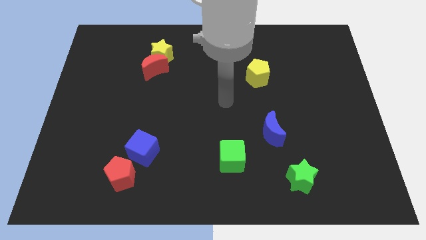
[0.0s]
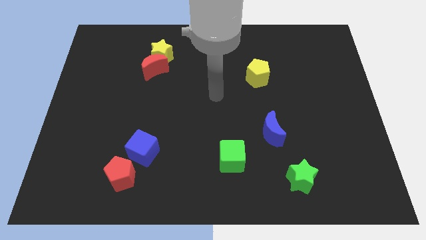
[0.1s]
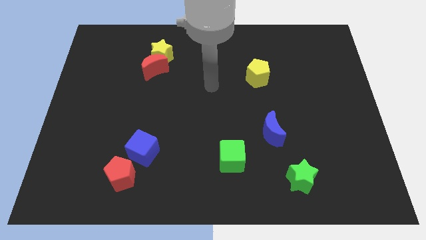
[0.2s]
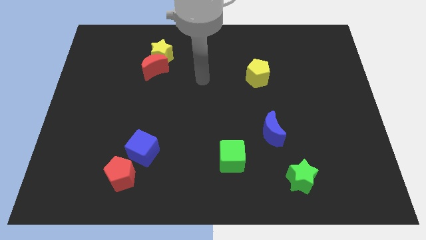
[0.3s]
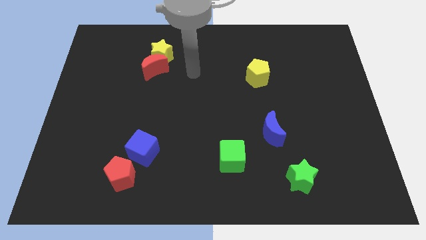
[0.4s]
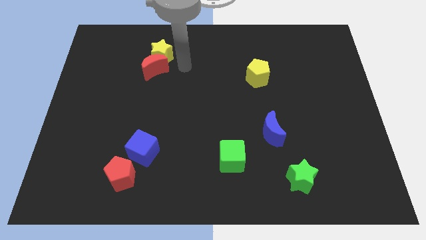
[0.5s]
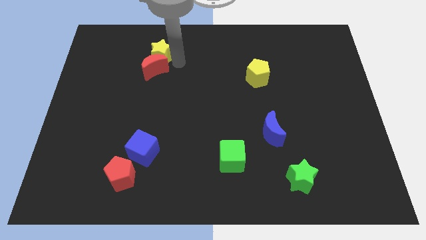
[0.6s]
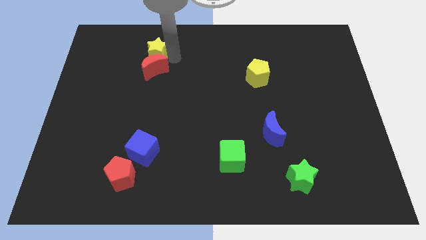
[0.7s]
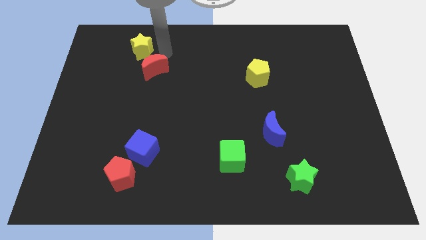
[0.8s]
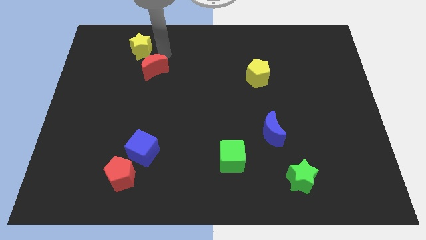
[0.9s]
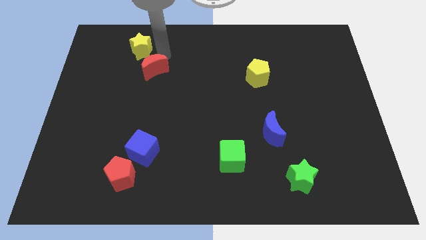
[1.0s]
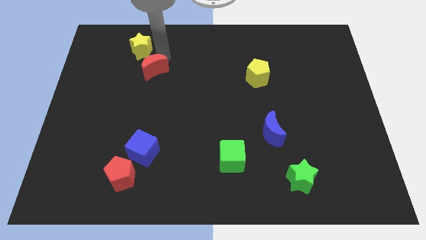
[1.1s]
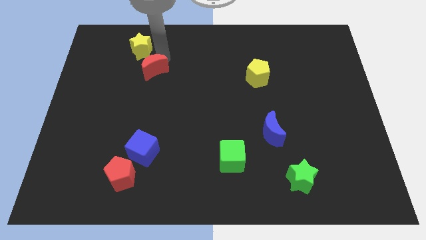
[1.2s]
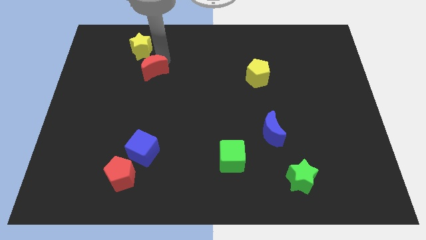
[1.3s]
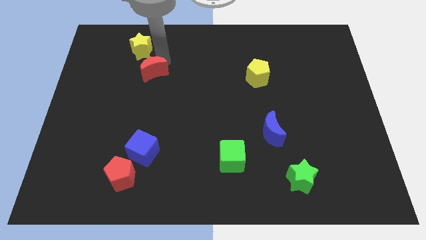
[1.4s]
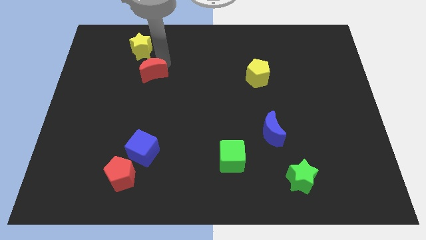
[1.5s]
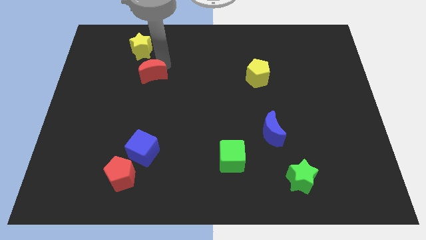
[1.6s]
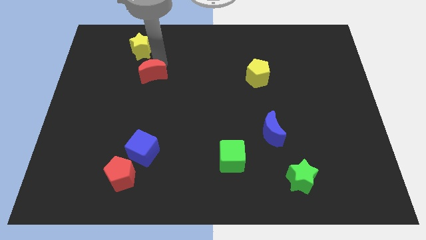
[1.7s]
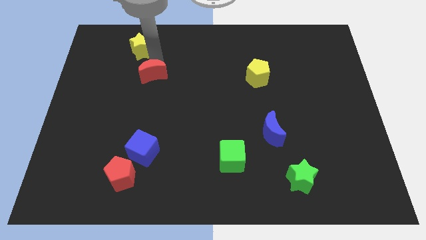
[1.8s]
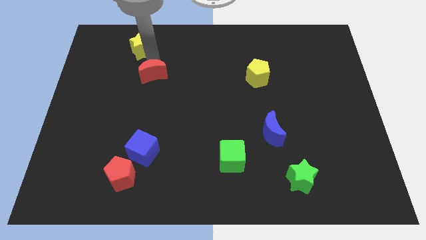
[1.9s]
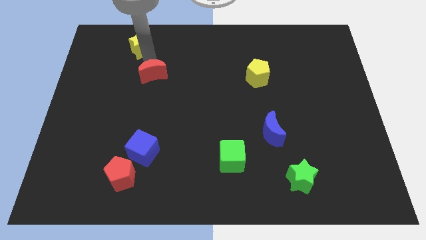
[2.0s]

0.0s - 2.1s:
move the red moon away from the yellow star

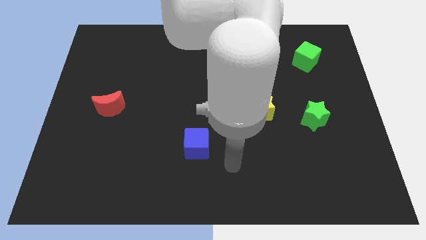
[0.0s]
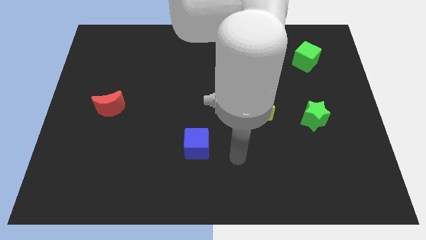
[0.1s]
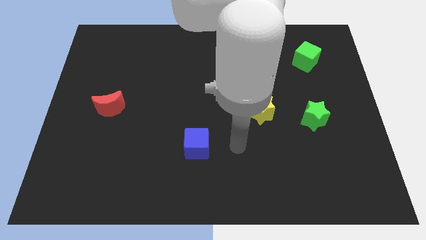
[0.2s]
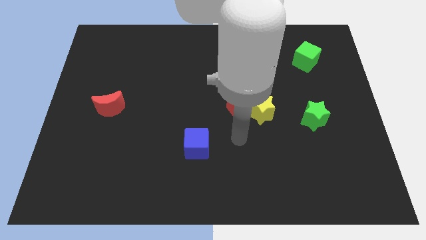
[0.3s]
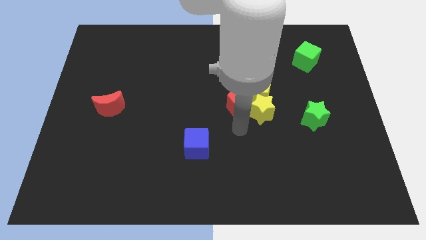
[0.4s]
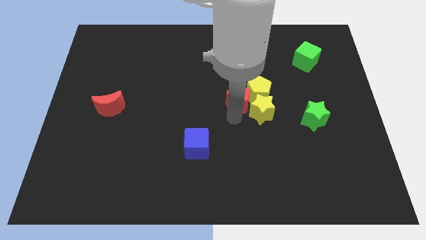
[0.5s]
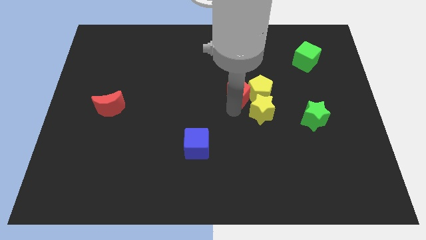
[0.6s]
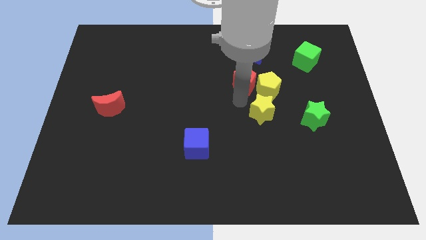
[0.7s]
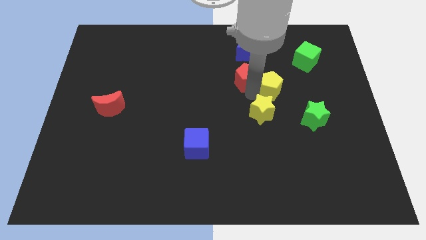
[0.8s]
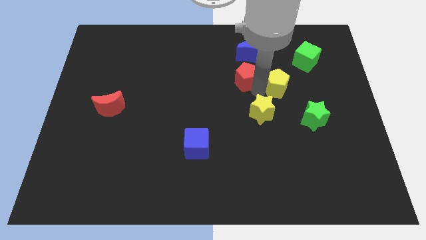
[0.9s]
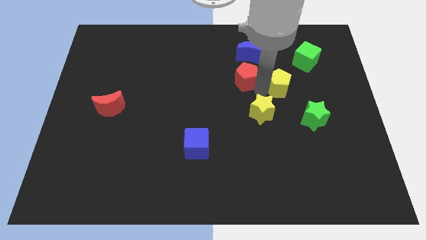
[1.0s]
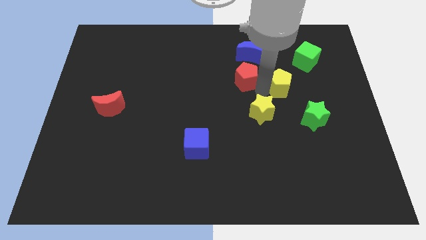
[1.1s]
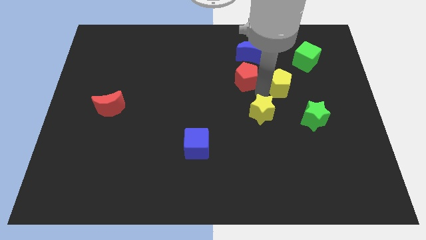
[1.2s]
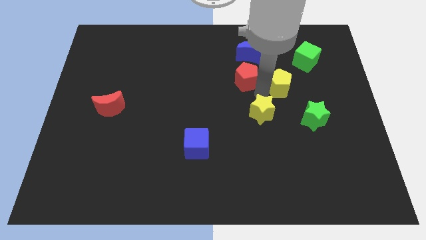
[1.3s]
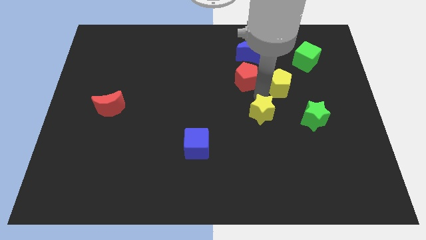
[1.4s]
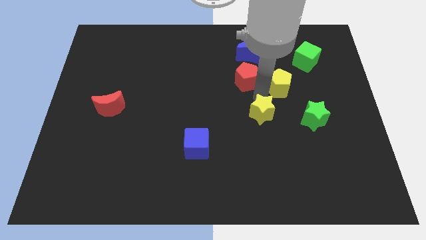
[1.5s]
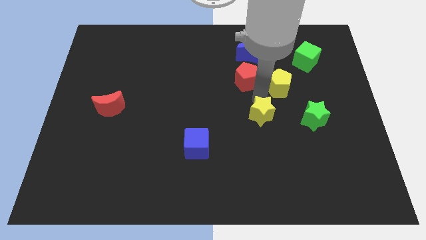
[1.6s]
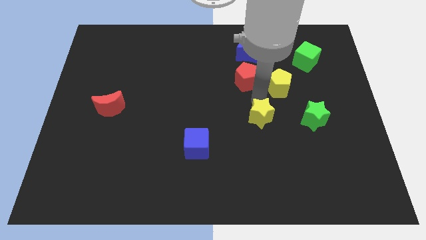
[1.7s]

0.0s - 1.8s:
move the yellow star away from the yellow pentagon and red pentagon

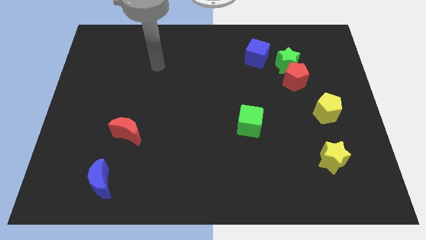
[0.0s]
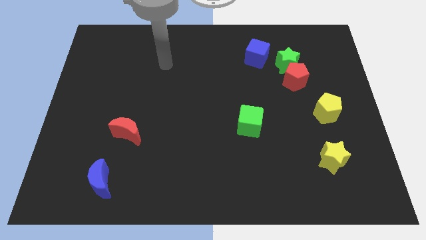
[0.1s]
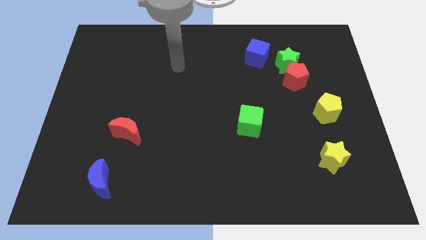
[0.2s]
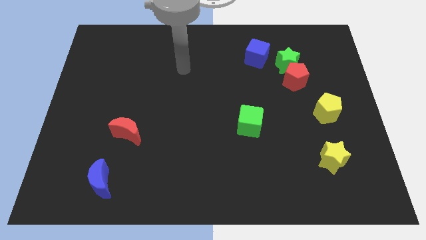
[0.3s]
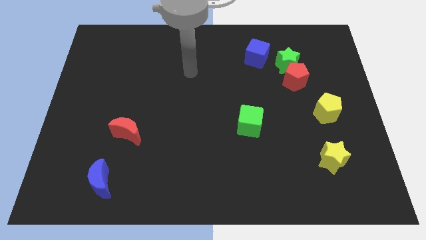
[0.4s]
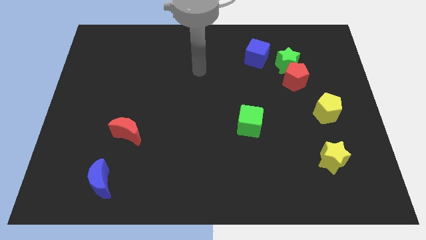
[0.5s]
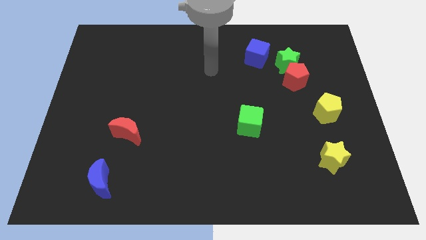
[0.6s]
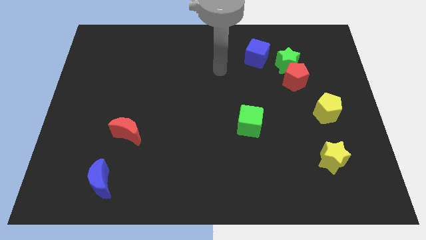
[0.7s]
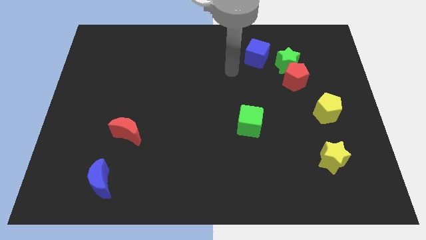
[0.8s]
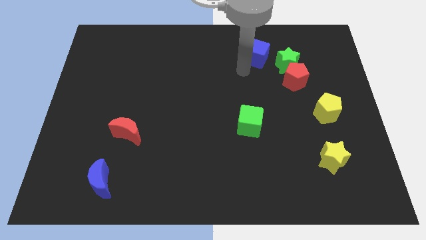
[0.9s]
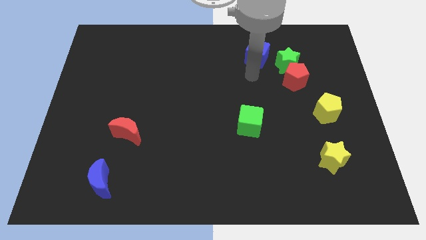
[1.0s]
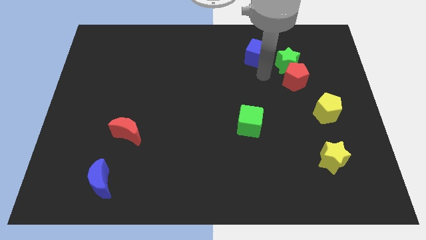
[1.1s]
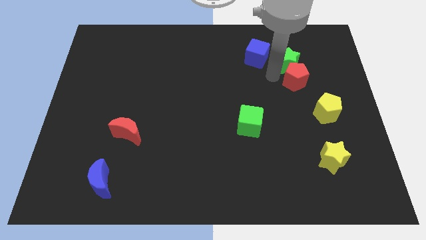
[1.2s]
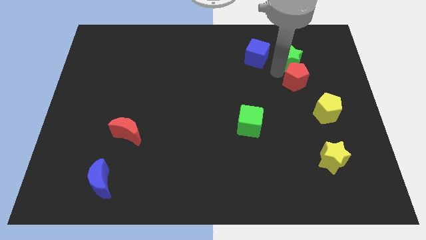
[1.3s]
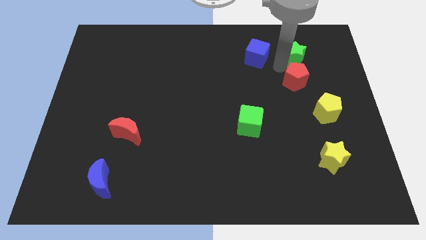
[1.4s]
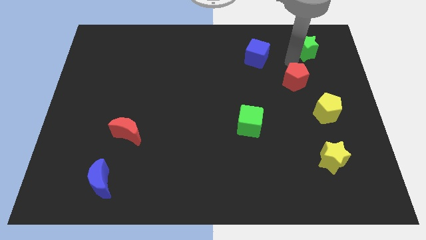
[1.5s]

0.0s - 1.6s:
separate the red pentagon from the green star

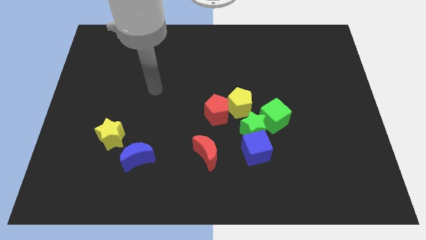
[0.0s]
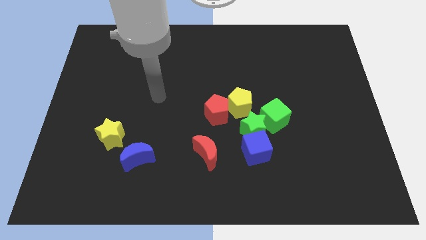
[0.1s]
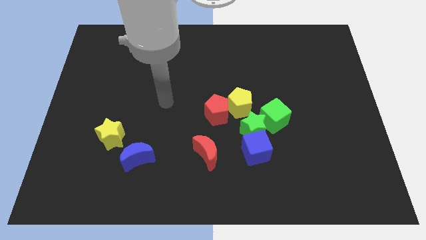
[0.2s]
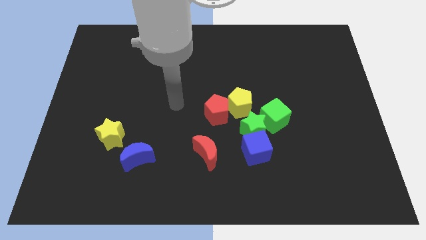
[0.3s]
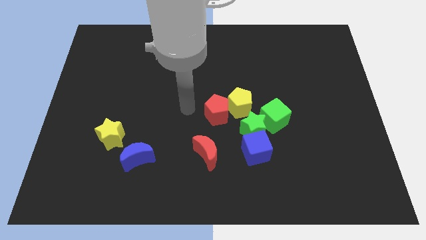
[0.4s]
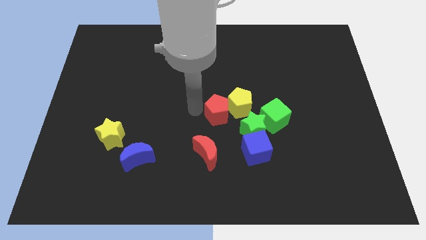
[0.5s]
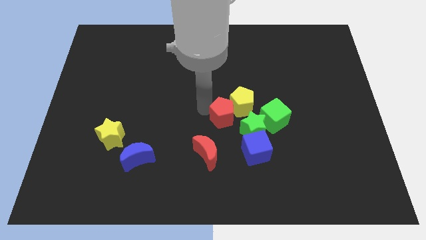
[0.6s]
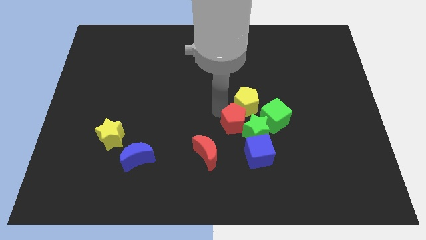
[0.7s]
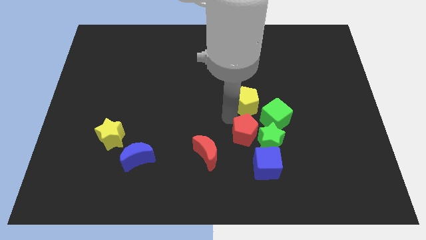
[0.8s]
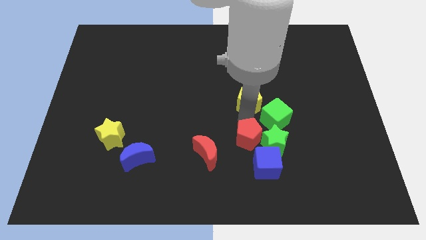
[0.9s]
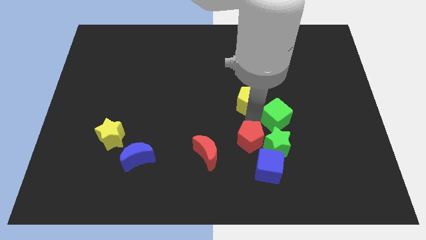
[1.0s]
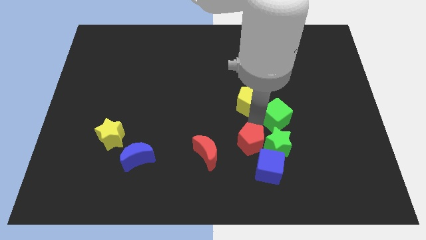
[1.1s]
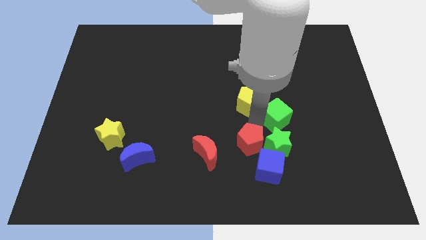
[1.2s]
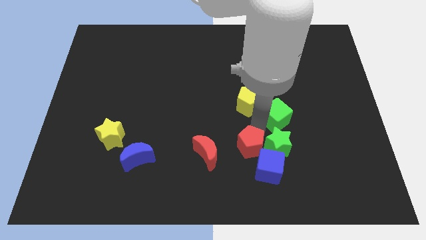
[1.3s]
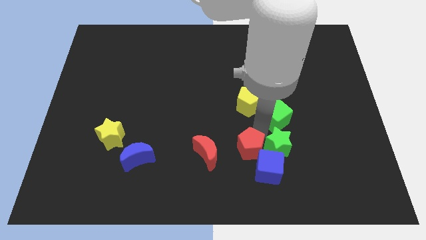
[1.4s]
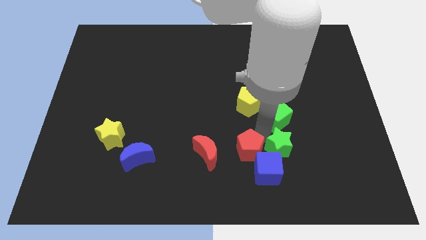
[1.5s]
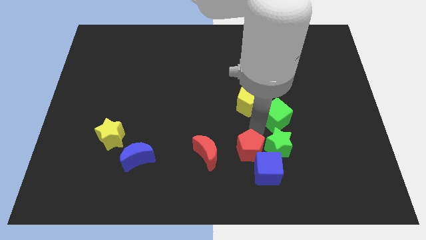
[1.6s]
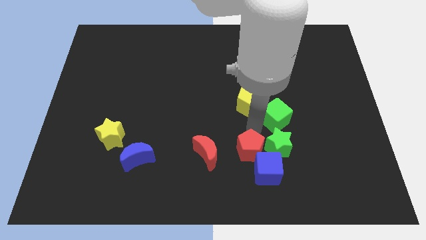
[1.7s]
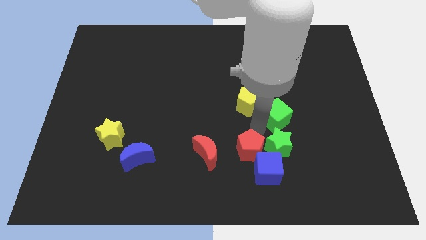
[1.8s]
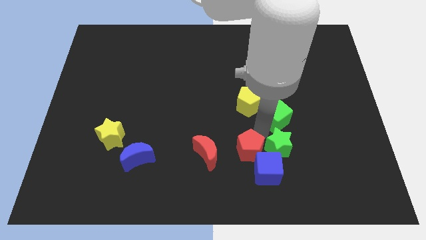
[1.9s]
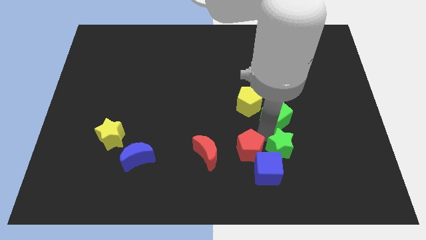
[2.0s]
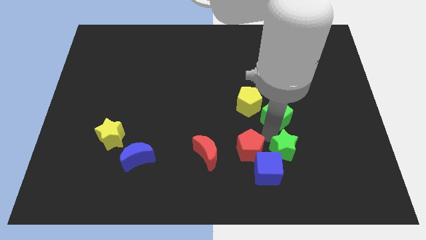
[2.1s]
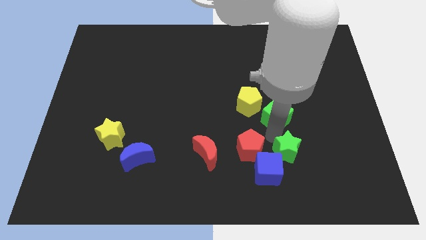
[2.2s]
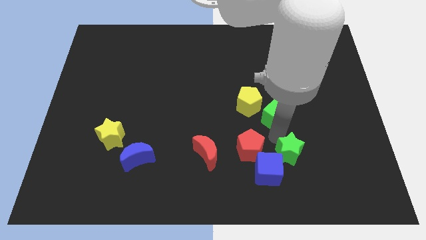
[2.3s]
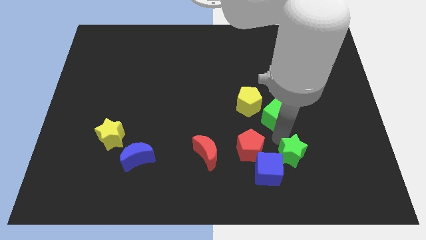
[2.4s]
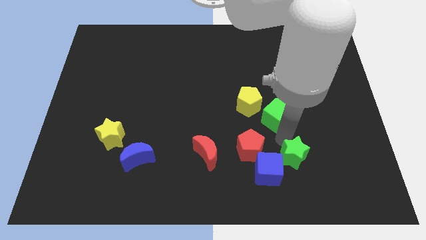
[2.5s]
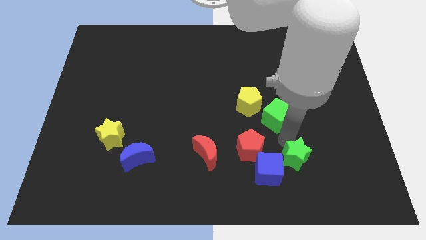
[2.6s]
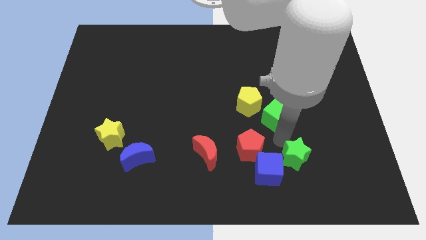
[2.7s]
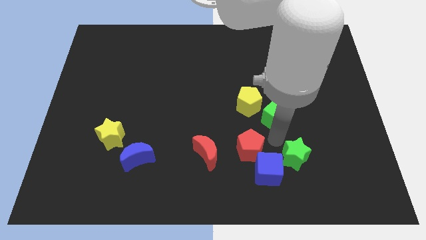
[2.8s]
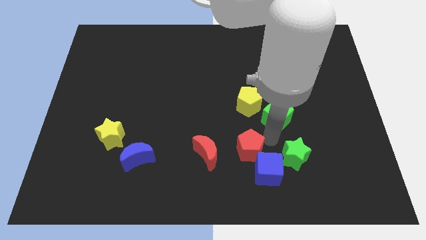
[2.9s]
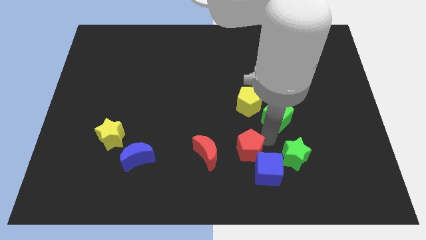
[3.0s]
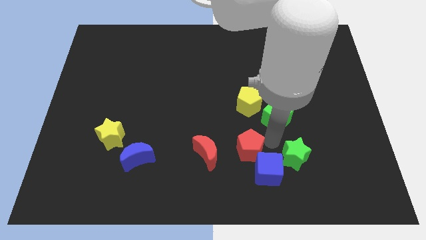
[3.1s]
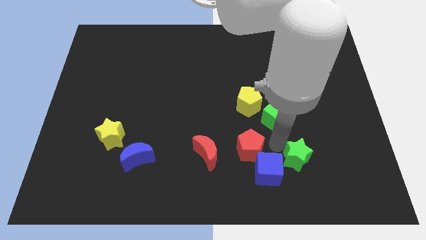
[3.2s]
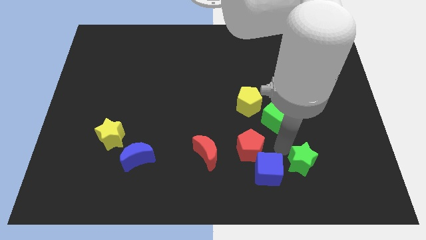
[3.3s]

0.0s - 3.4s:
pull the green star apart from the clump

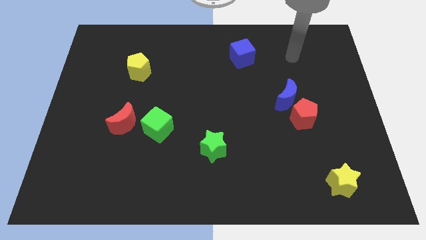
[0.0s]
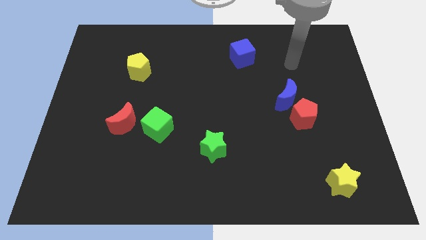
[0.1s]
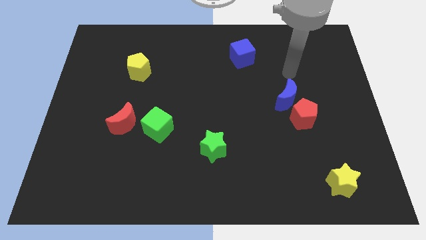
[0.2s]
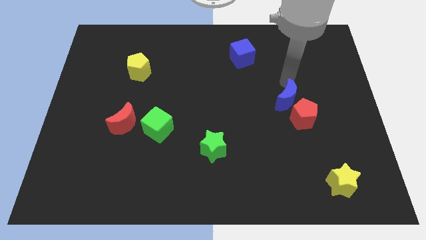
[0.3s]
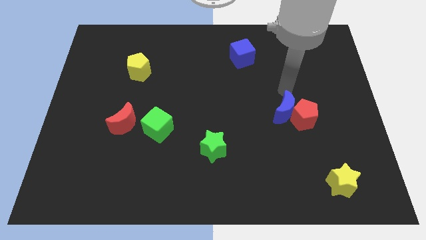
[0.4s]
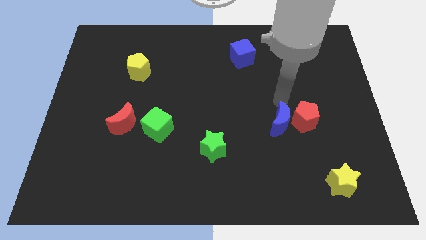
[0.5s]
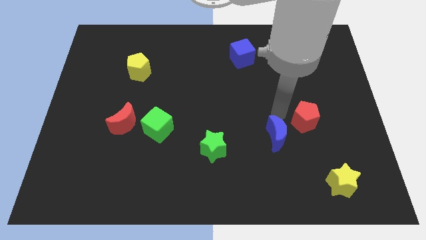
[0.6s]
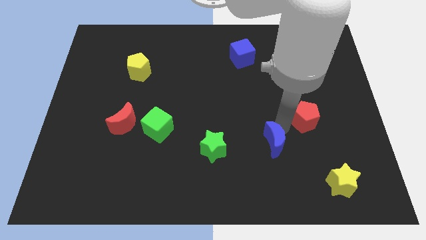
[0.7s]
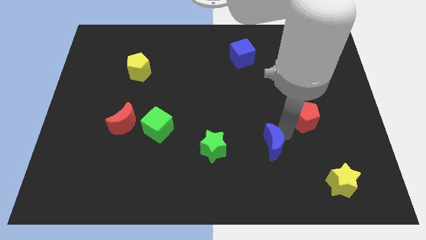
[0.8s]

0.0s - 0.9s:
separate the red pentagon from the blue moon
